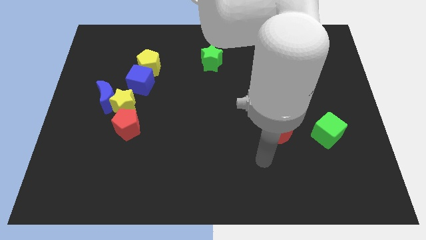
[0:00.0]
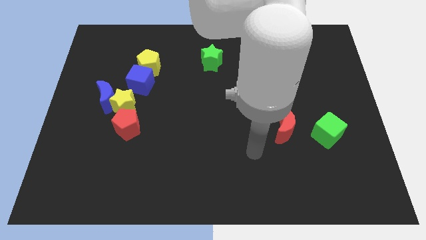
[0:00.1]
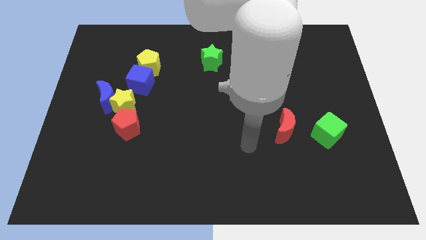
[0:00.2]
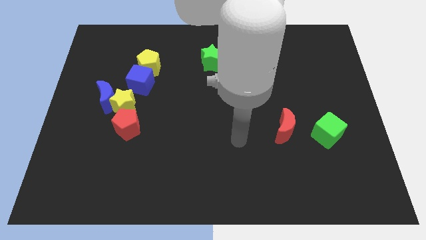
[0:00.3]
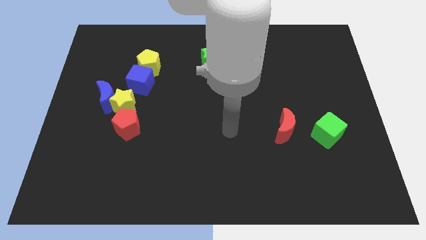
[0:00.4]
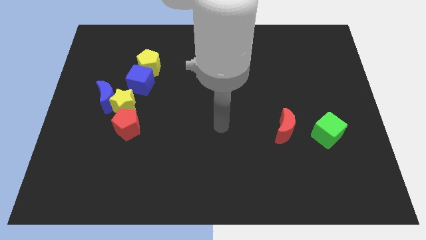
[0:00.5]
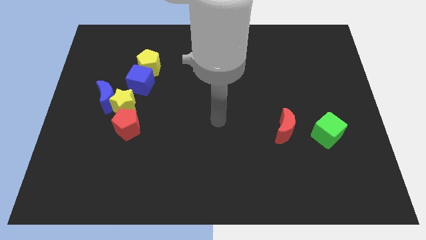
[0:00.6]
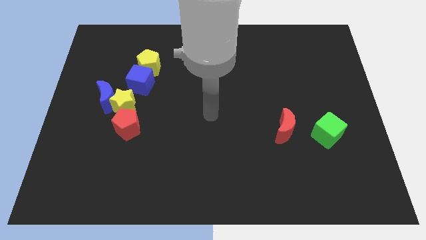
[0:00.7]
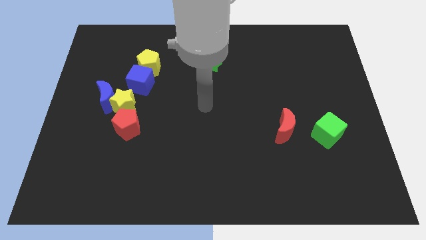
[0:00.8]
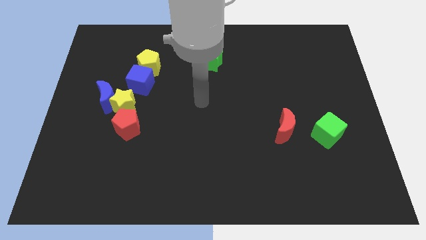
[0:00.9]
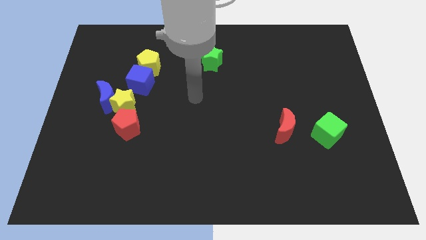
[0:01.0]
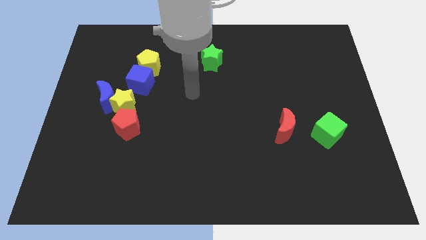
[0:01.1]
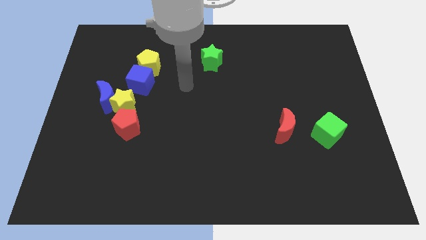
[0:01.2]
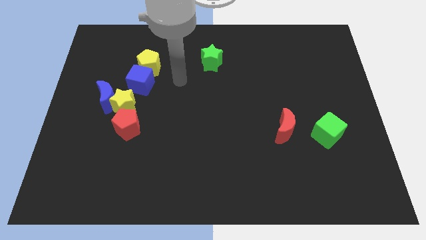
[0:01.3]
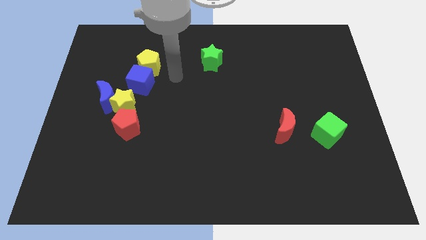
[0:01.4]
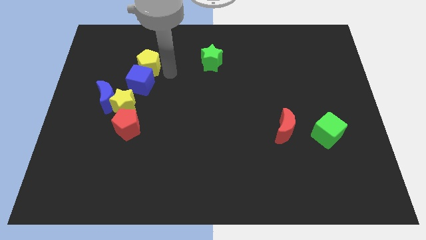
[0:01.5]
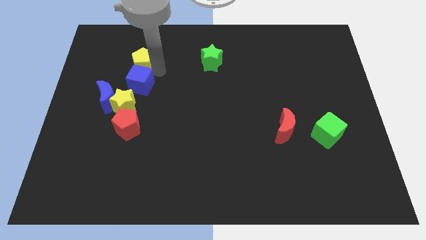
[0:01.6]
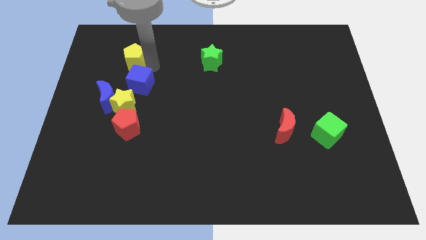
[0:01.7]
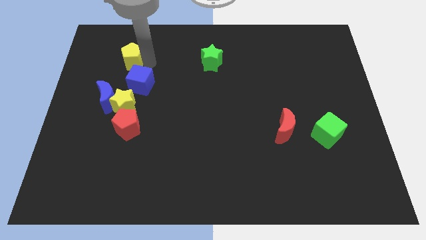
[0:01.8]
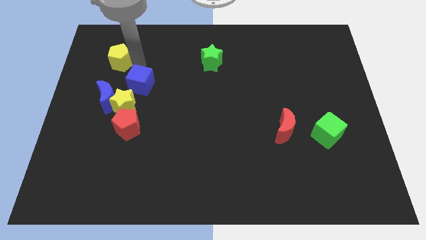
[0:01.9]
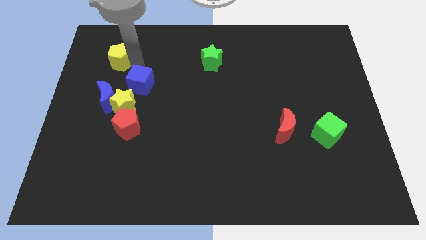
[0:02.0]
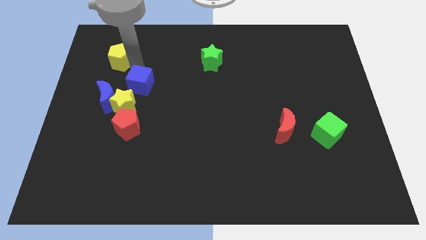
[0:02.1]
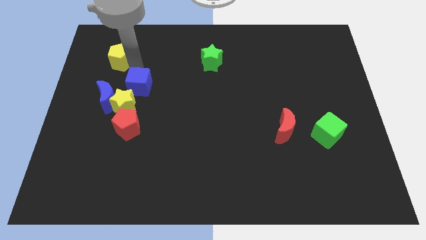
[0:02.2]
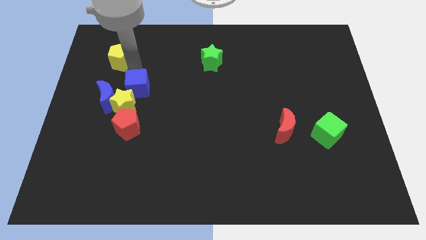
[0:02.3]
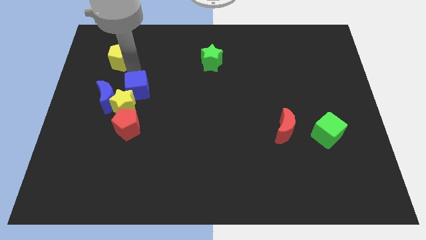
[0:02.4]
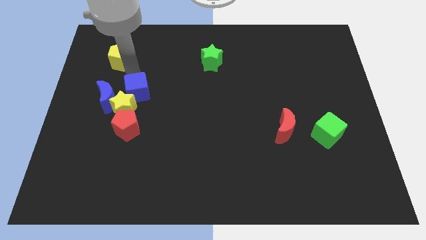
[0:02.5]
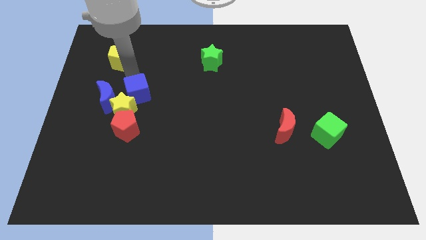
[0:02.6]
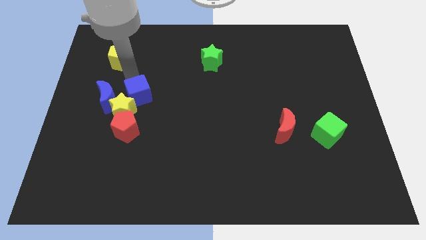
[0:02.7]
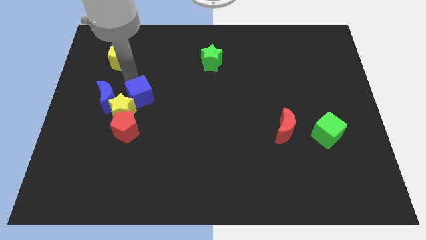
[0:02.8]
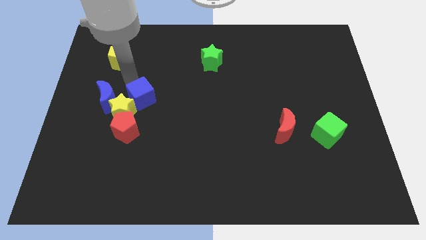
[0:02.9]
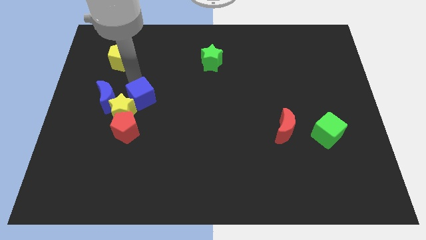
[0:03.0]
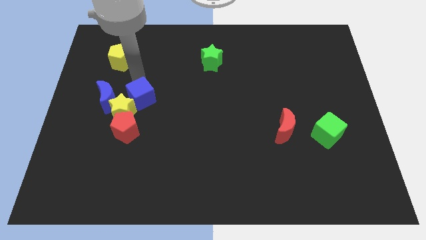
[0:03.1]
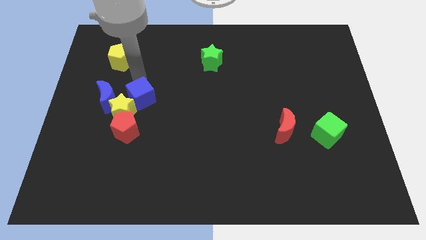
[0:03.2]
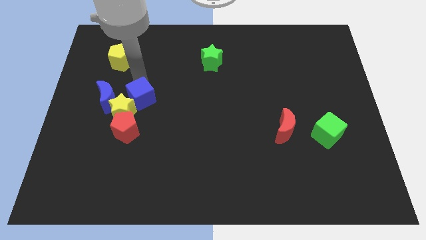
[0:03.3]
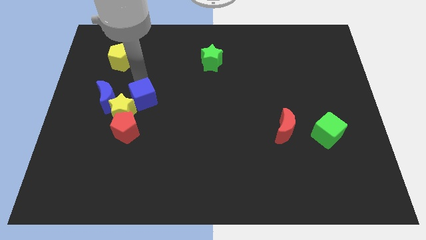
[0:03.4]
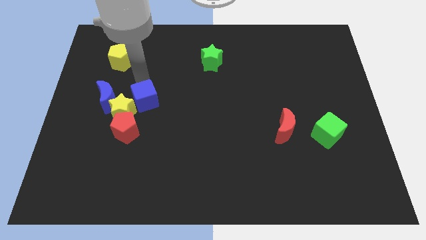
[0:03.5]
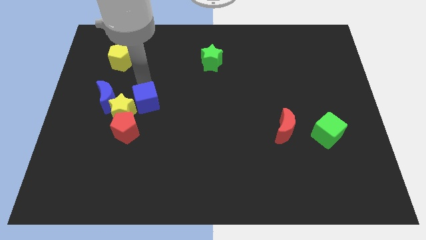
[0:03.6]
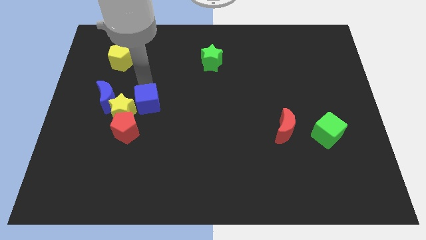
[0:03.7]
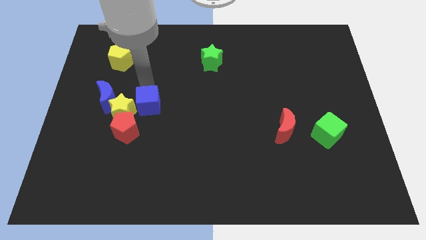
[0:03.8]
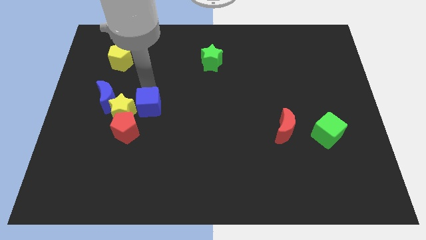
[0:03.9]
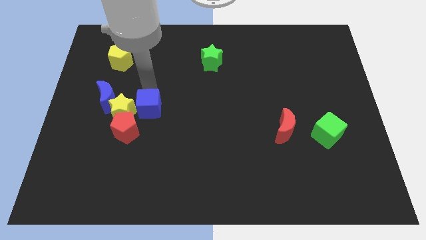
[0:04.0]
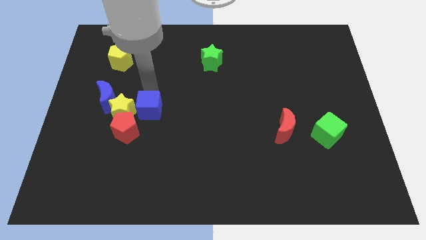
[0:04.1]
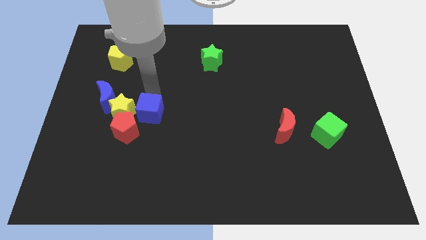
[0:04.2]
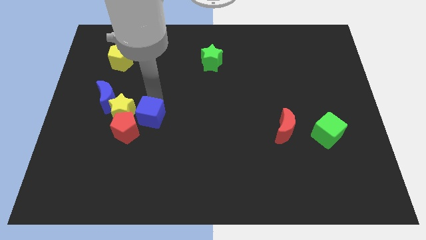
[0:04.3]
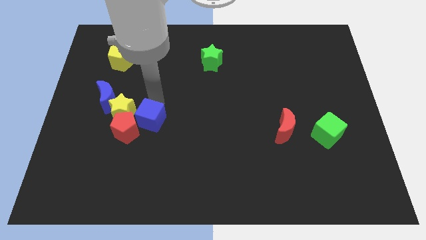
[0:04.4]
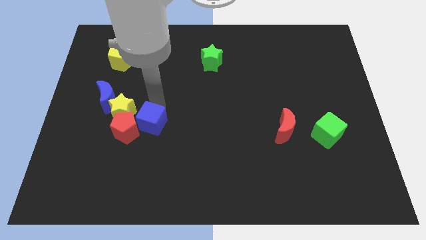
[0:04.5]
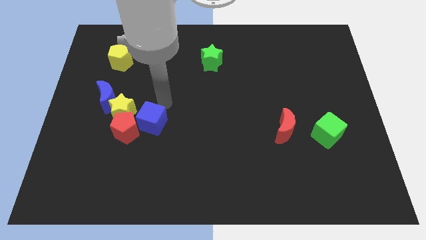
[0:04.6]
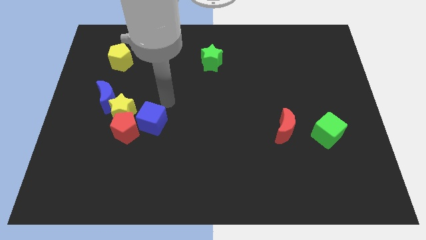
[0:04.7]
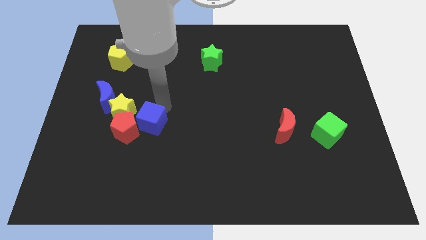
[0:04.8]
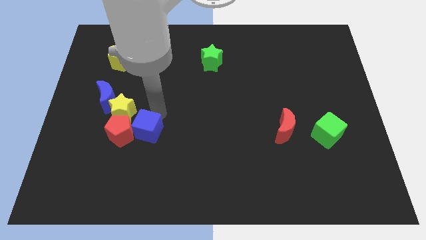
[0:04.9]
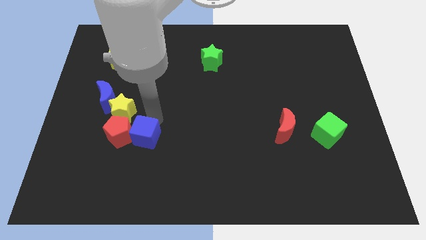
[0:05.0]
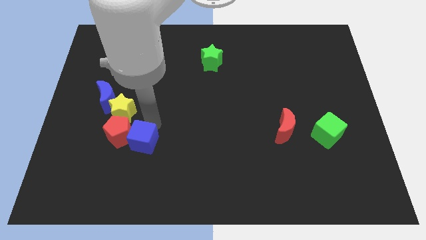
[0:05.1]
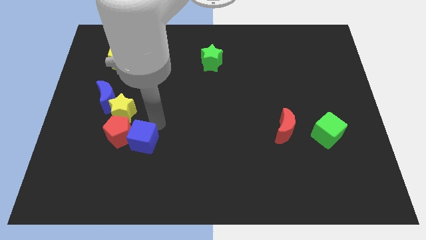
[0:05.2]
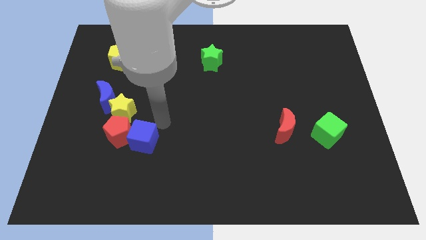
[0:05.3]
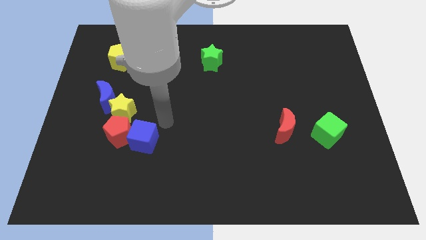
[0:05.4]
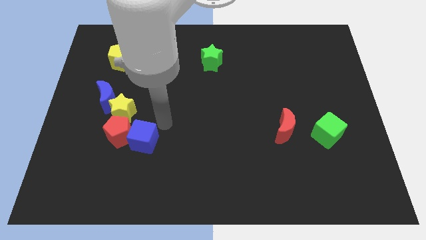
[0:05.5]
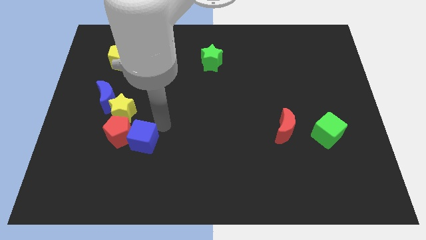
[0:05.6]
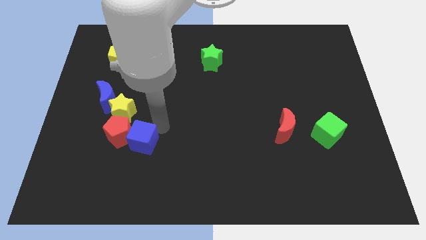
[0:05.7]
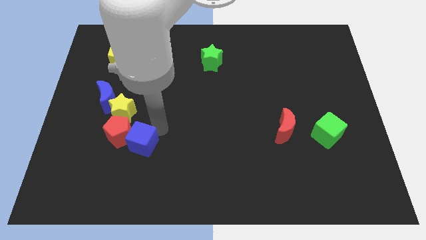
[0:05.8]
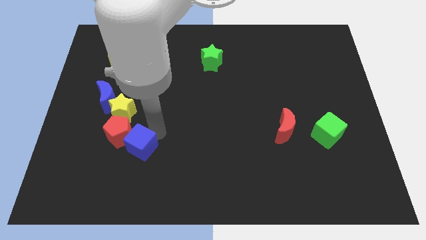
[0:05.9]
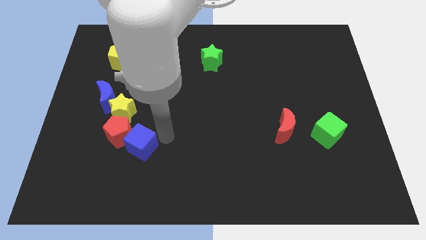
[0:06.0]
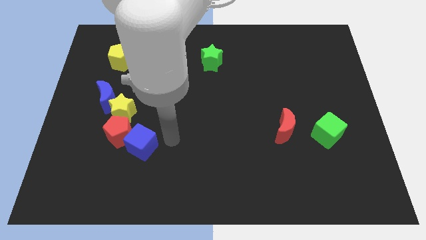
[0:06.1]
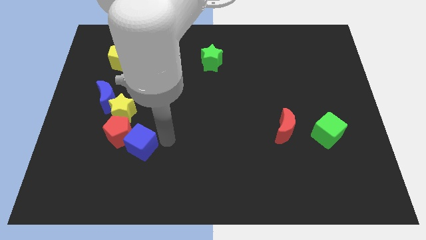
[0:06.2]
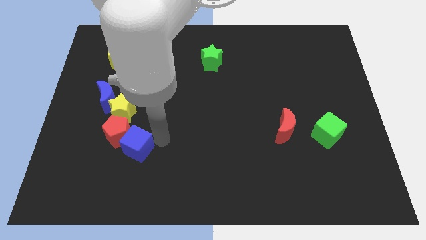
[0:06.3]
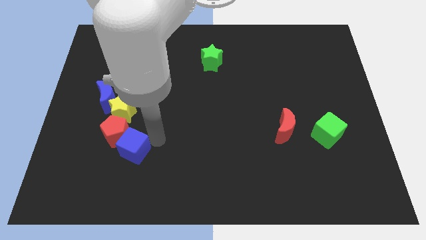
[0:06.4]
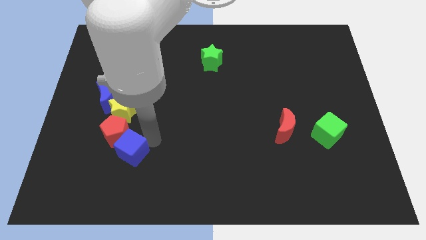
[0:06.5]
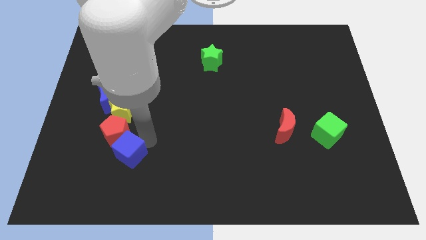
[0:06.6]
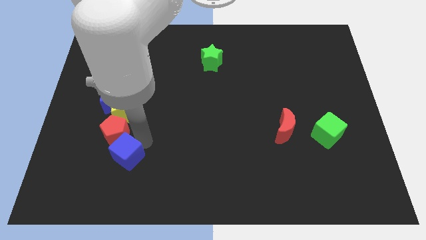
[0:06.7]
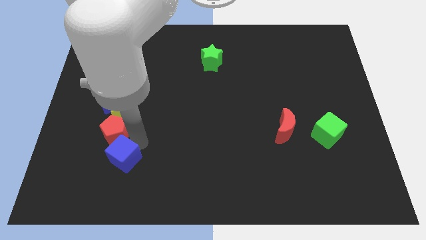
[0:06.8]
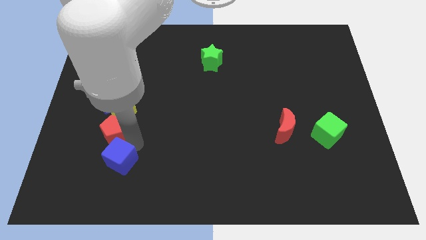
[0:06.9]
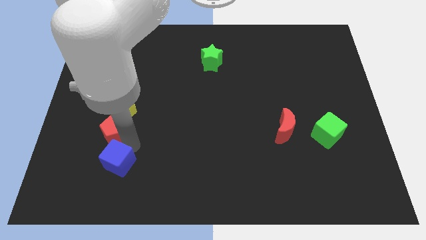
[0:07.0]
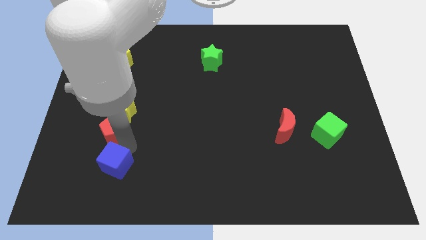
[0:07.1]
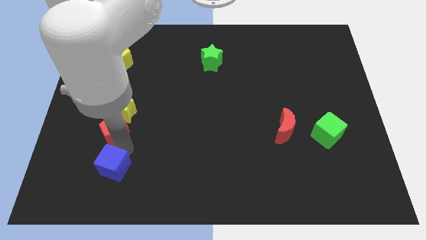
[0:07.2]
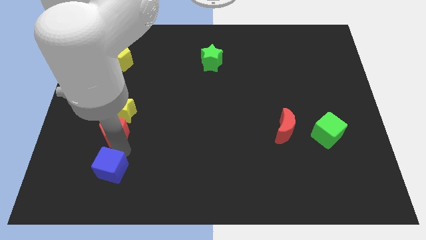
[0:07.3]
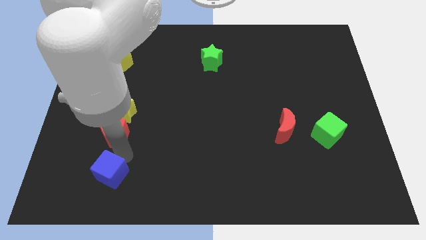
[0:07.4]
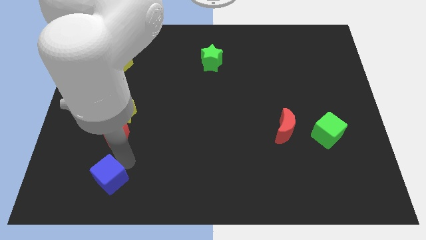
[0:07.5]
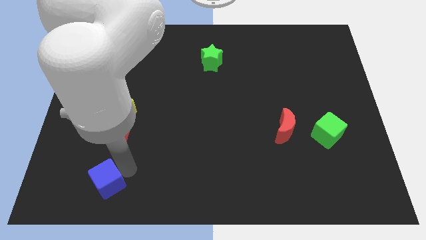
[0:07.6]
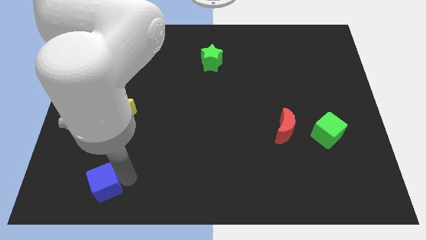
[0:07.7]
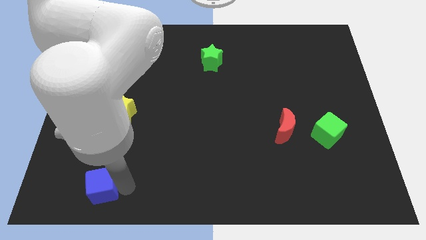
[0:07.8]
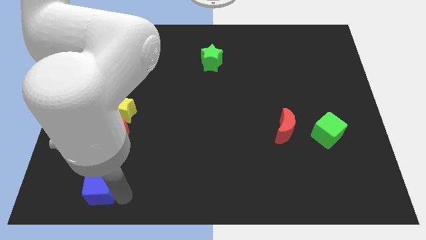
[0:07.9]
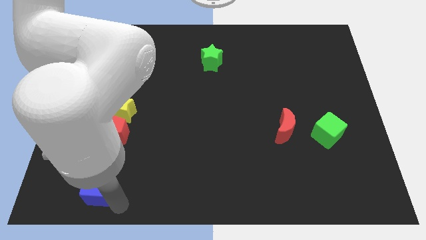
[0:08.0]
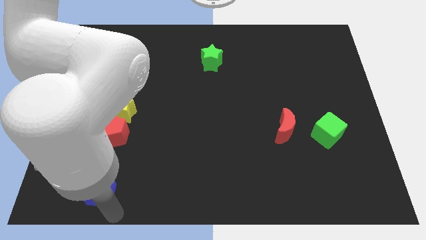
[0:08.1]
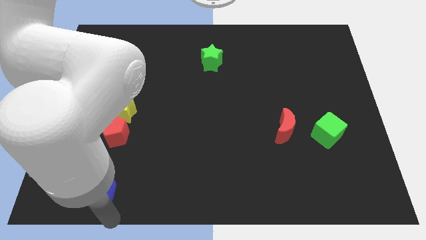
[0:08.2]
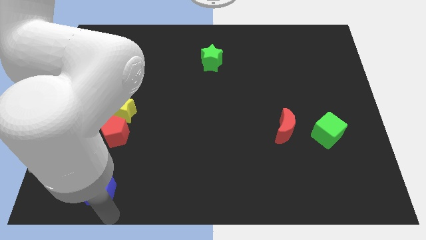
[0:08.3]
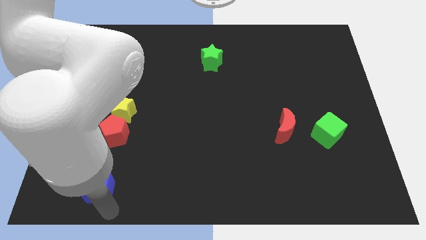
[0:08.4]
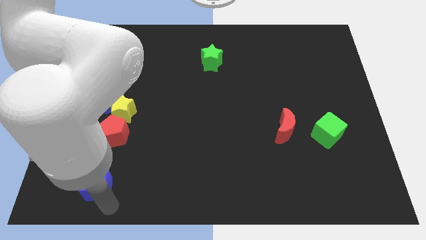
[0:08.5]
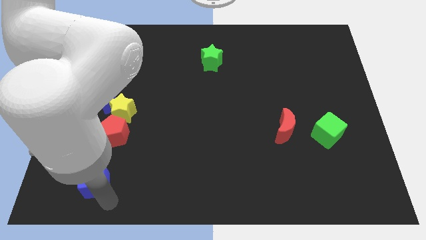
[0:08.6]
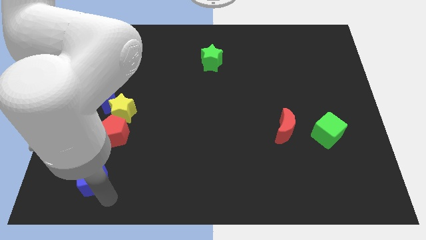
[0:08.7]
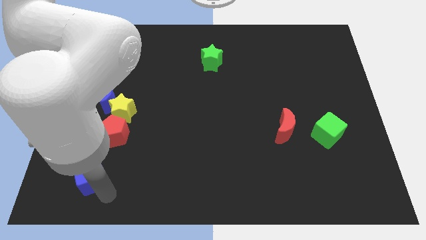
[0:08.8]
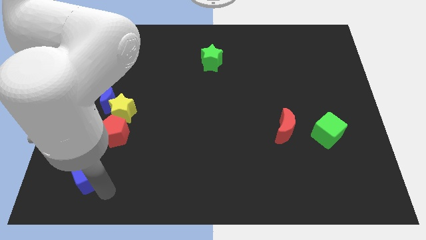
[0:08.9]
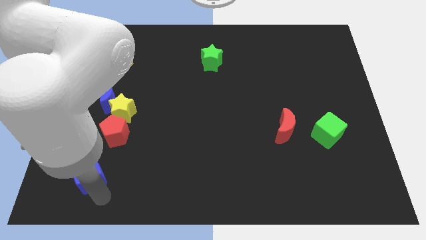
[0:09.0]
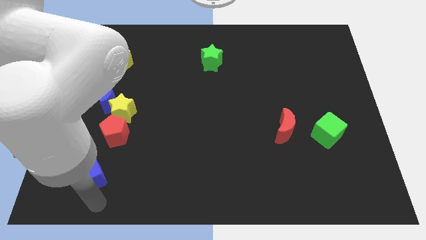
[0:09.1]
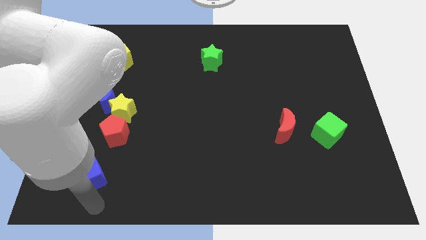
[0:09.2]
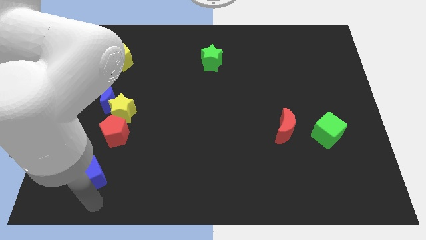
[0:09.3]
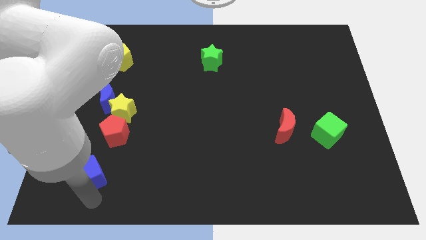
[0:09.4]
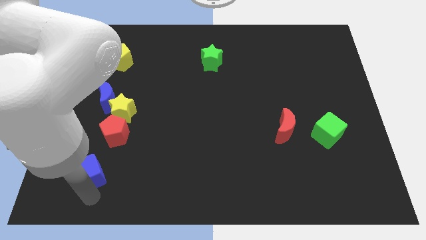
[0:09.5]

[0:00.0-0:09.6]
push the blue cube diagonally down and to the left of the red pentagon
